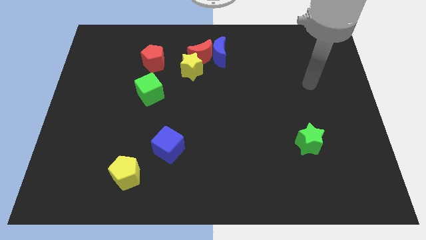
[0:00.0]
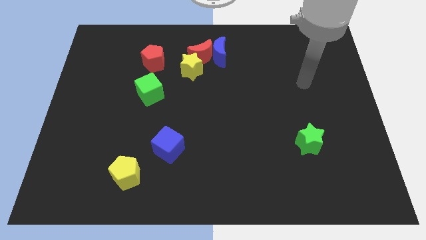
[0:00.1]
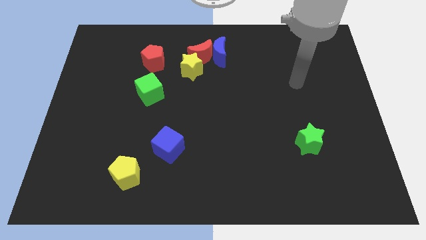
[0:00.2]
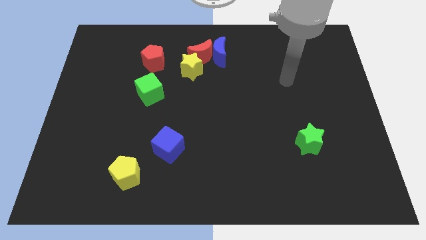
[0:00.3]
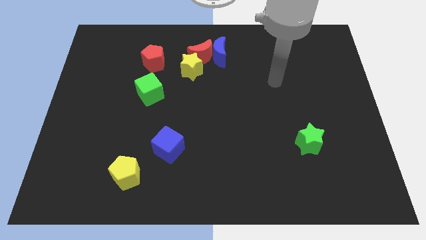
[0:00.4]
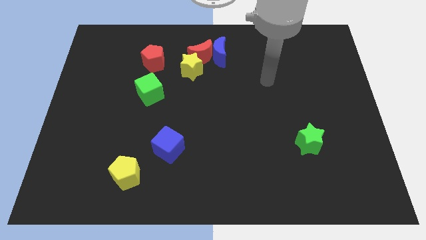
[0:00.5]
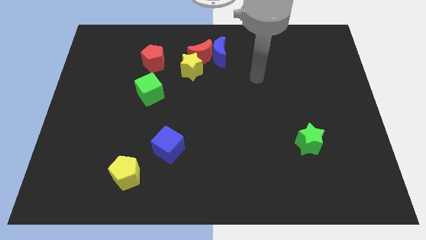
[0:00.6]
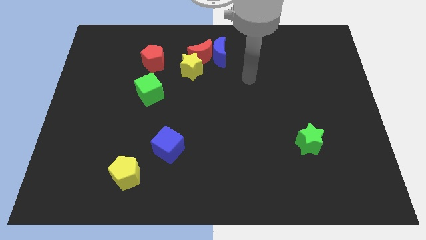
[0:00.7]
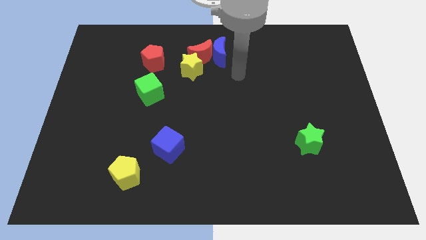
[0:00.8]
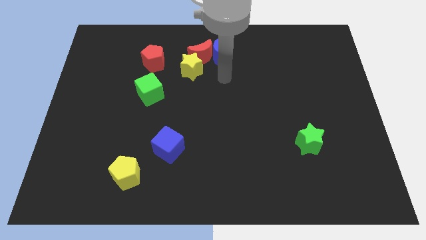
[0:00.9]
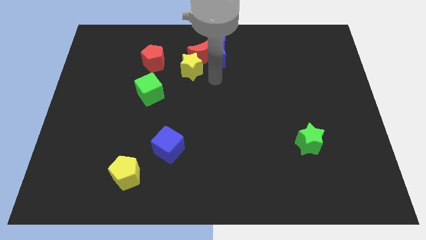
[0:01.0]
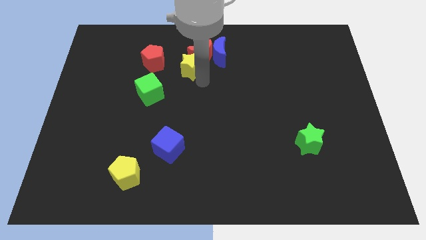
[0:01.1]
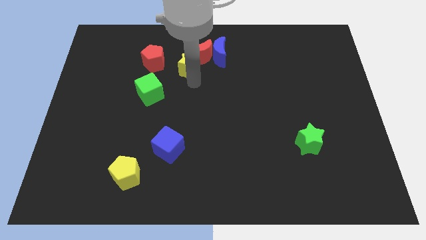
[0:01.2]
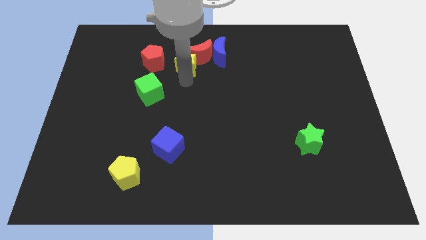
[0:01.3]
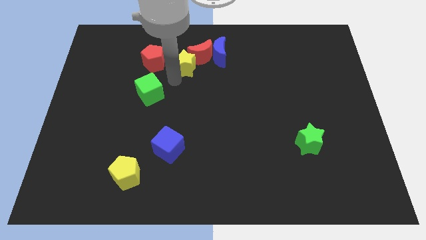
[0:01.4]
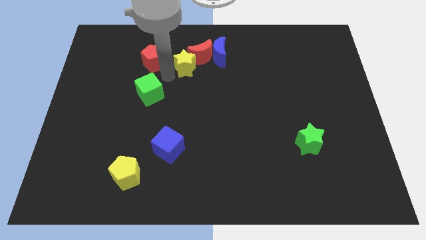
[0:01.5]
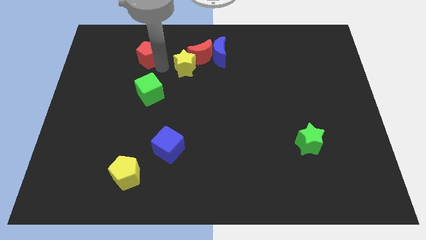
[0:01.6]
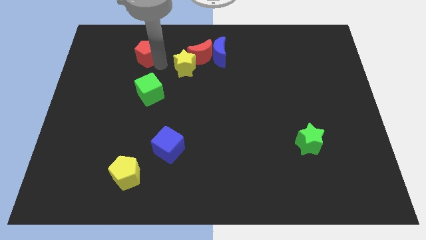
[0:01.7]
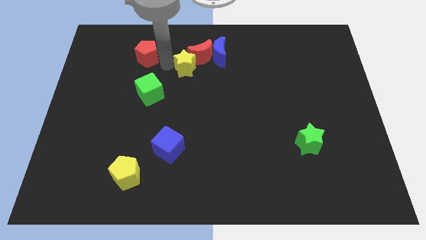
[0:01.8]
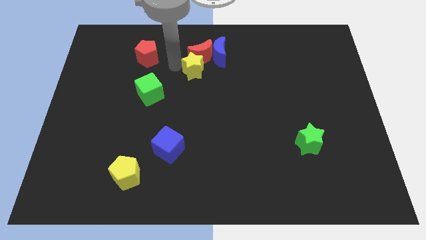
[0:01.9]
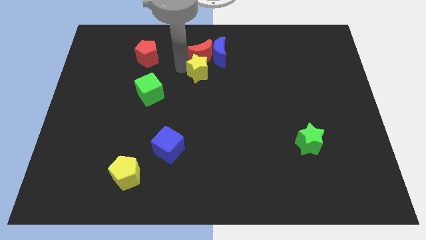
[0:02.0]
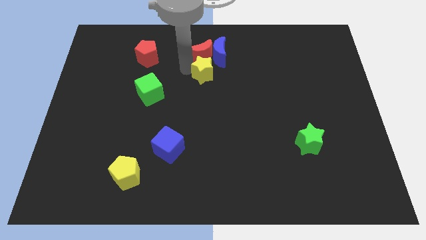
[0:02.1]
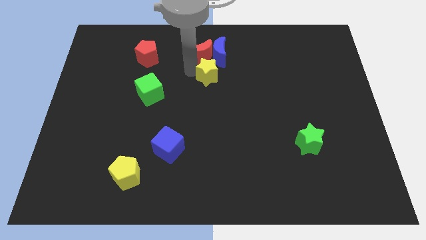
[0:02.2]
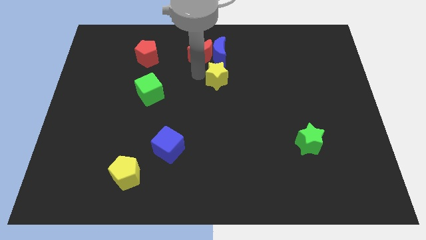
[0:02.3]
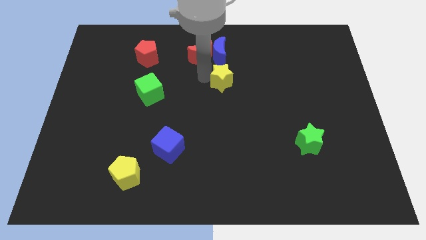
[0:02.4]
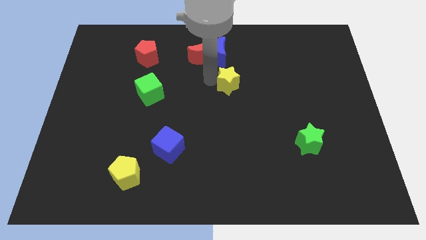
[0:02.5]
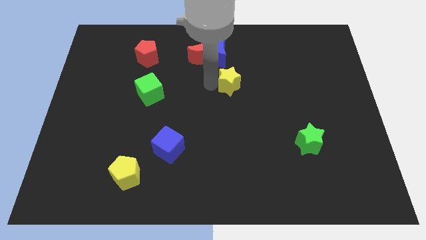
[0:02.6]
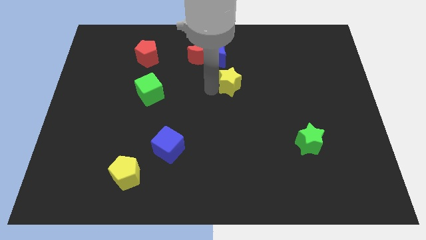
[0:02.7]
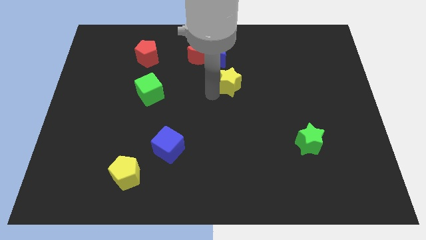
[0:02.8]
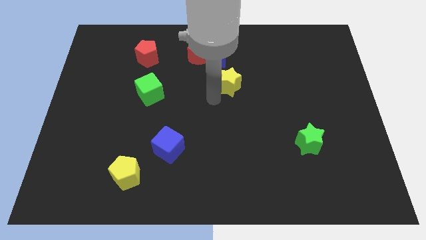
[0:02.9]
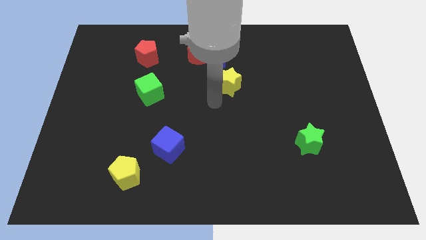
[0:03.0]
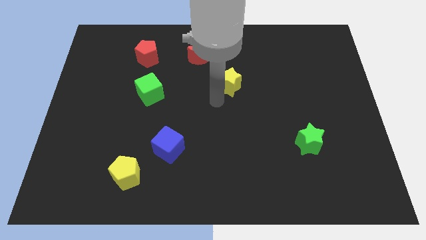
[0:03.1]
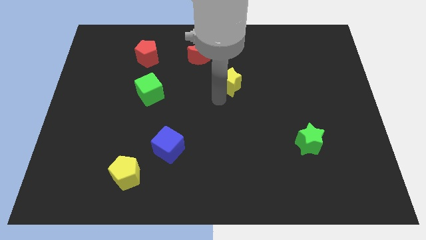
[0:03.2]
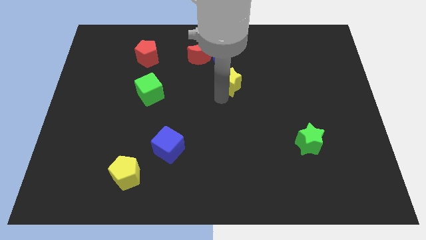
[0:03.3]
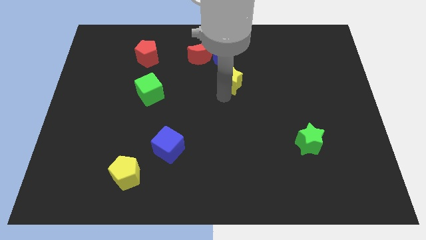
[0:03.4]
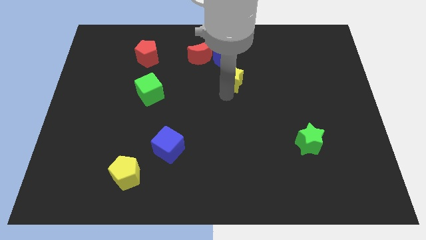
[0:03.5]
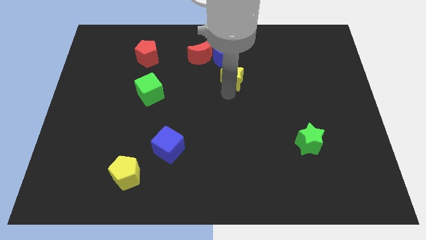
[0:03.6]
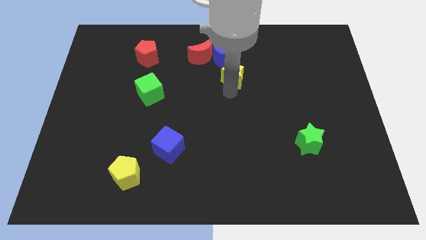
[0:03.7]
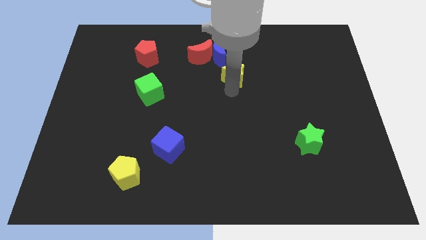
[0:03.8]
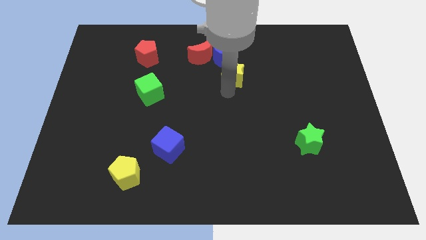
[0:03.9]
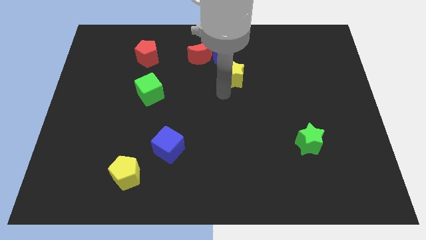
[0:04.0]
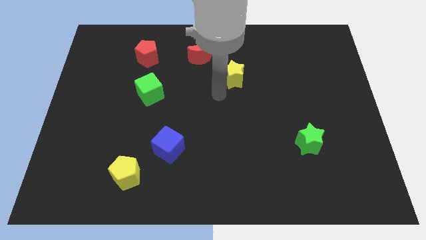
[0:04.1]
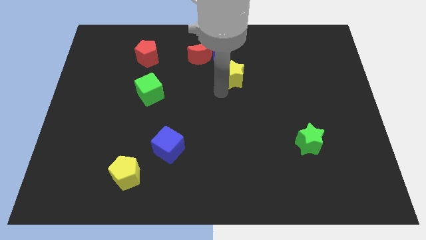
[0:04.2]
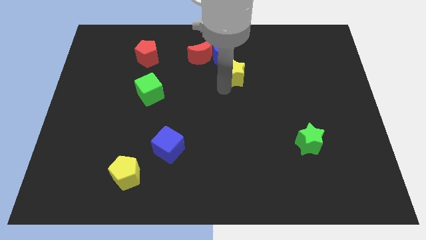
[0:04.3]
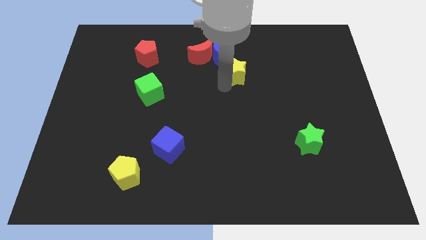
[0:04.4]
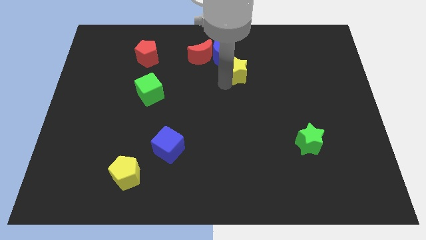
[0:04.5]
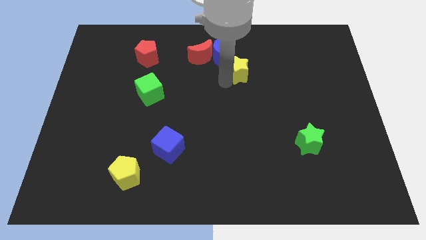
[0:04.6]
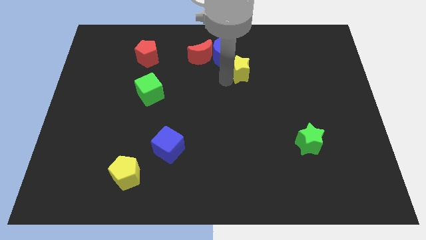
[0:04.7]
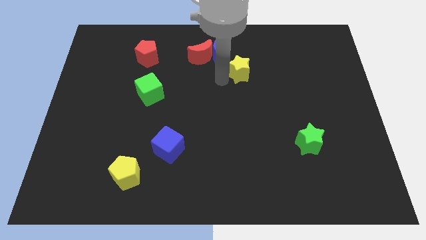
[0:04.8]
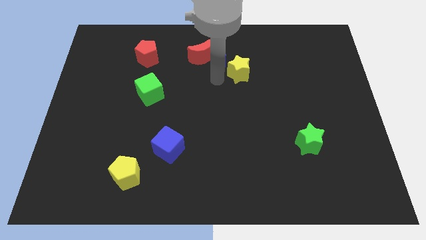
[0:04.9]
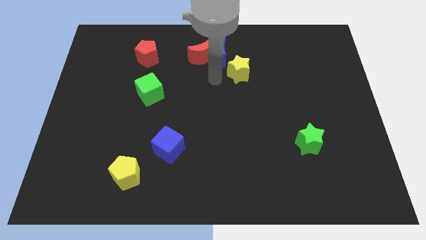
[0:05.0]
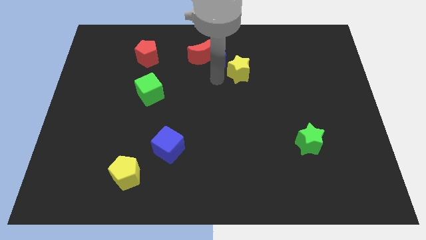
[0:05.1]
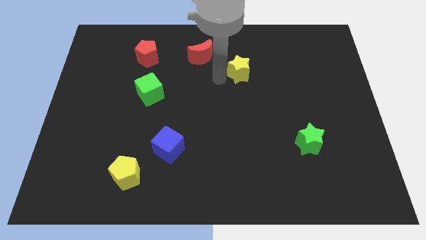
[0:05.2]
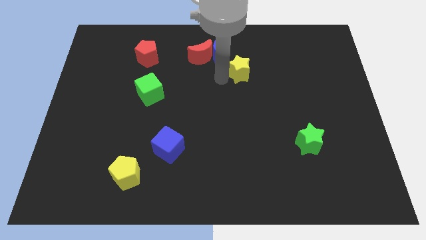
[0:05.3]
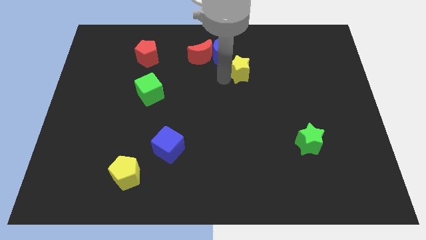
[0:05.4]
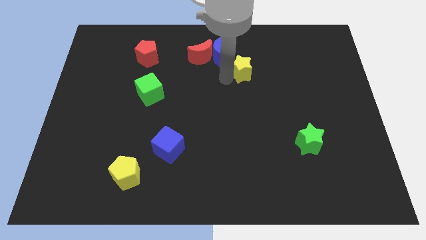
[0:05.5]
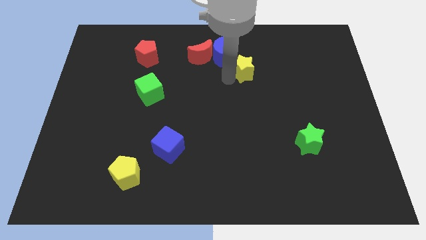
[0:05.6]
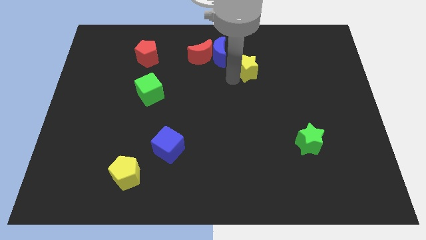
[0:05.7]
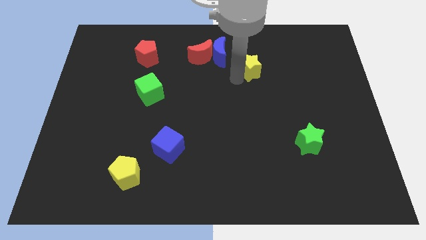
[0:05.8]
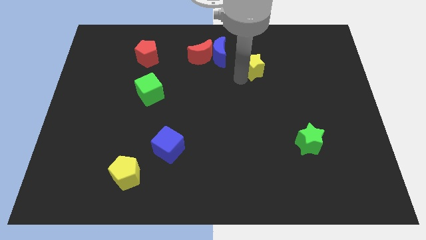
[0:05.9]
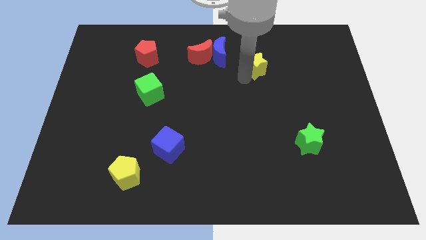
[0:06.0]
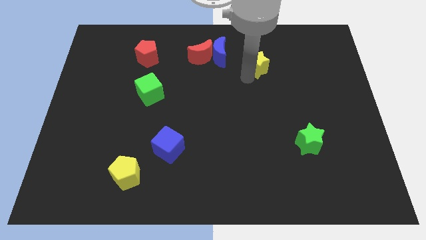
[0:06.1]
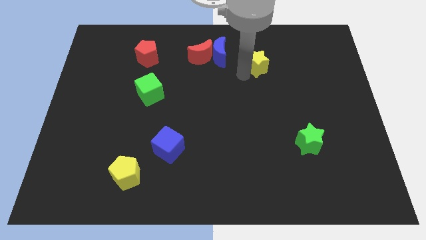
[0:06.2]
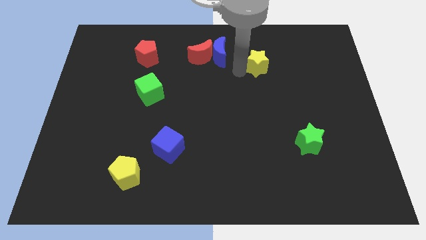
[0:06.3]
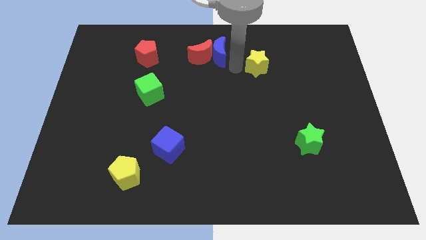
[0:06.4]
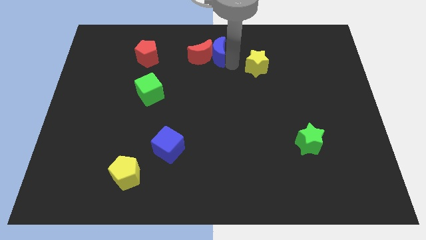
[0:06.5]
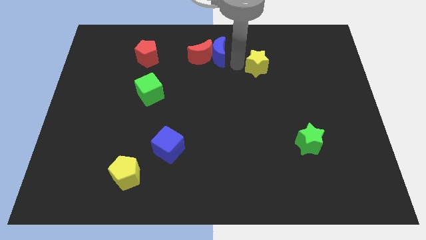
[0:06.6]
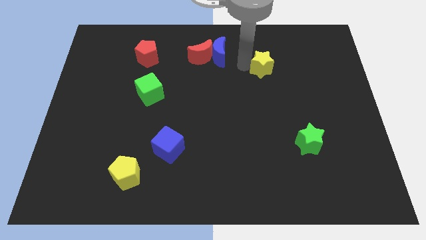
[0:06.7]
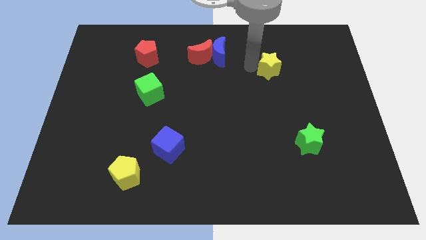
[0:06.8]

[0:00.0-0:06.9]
move the yellow star right

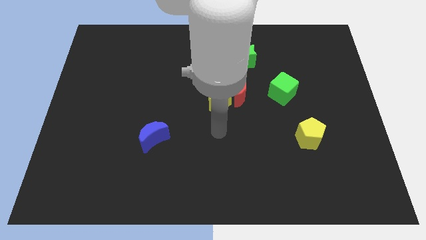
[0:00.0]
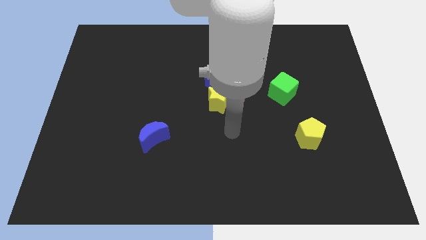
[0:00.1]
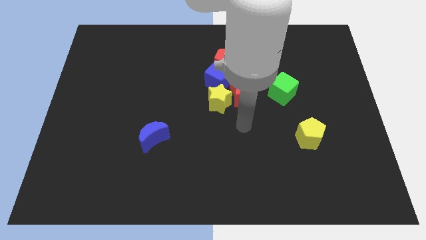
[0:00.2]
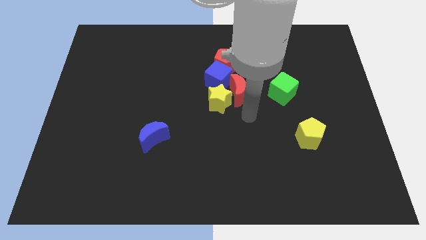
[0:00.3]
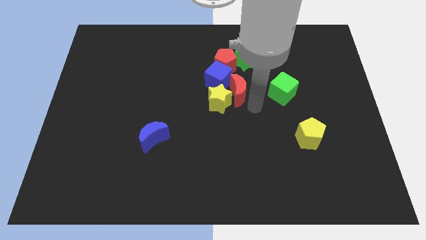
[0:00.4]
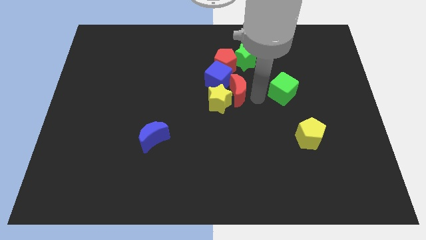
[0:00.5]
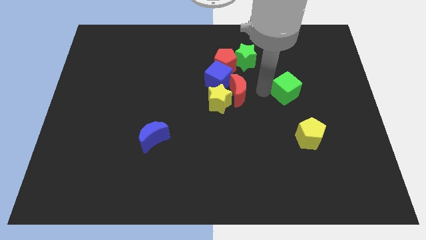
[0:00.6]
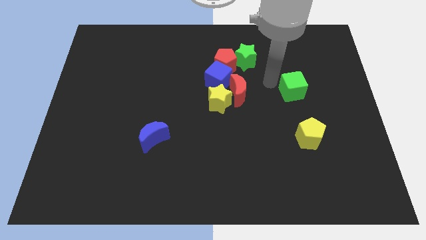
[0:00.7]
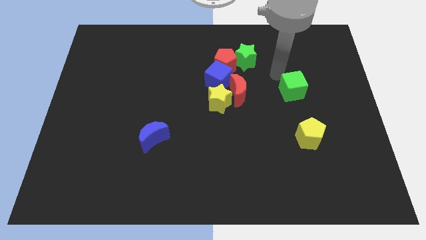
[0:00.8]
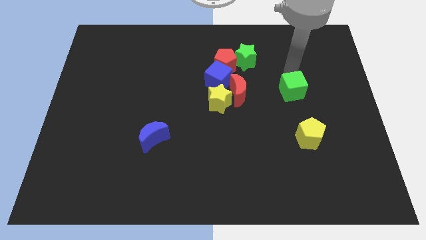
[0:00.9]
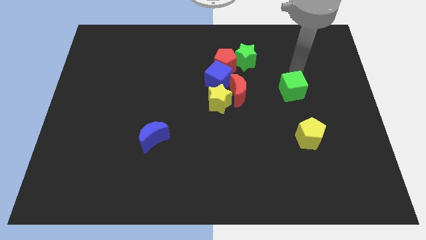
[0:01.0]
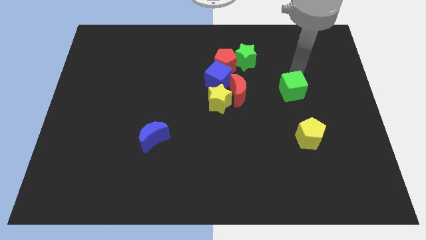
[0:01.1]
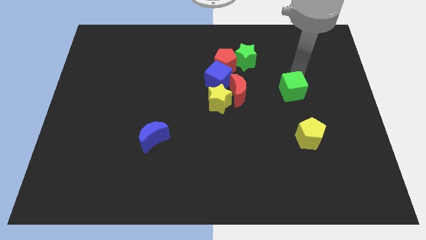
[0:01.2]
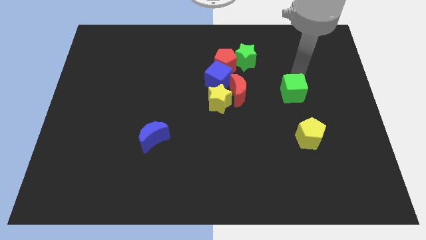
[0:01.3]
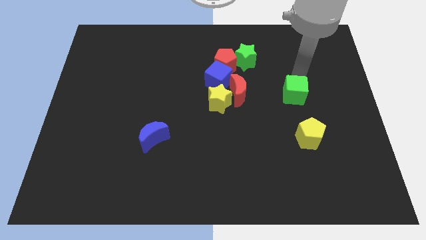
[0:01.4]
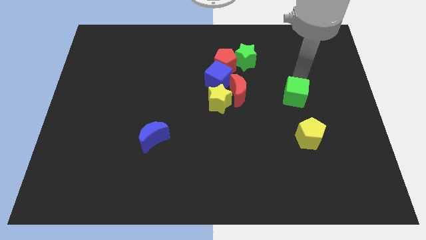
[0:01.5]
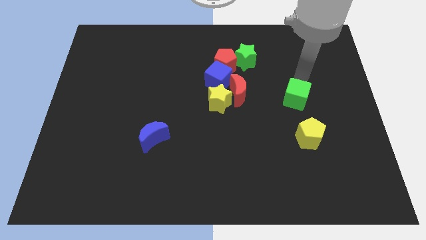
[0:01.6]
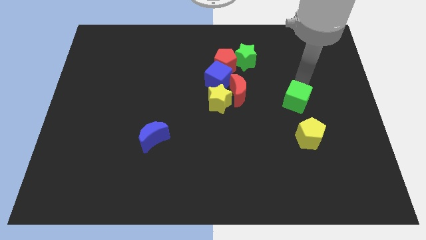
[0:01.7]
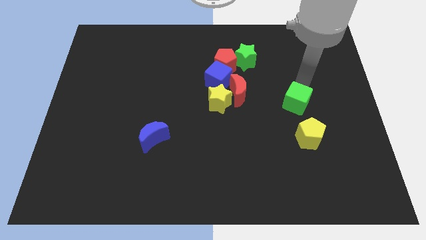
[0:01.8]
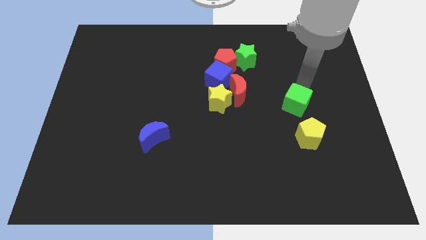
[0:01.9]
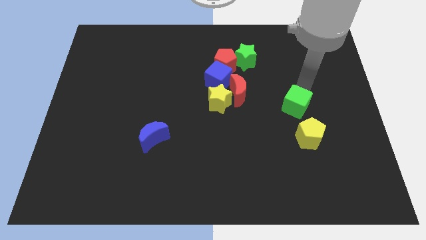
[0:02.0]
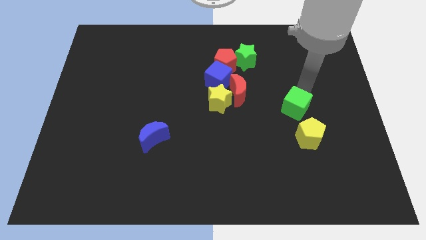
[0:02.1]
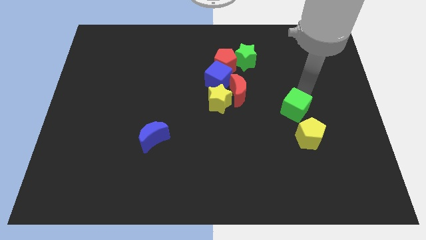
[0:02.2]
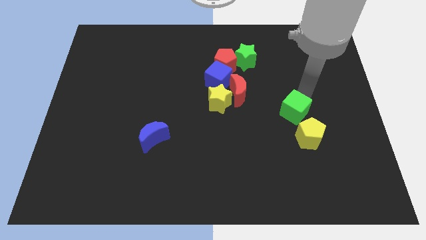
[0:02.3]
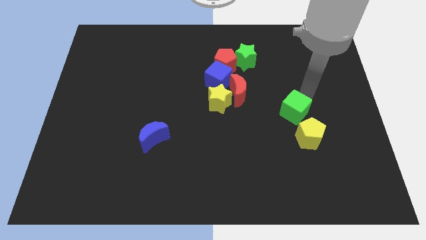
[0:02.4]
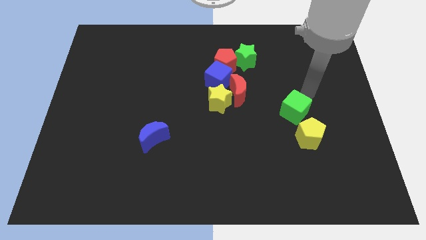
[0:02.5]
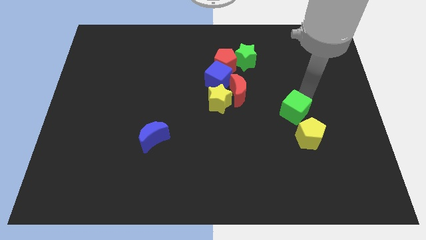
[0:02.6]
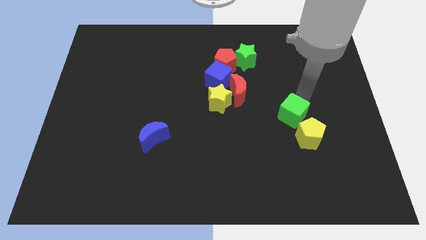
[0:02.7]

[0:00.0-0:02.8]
push the green cube down a little bit
